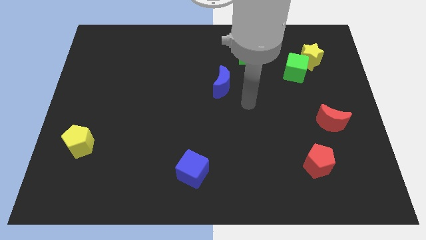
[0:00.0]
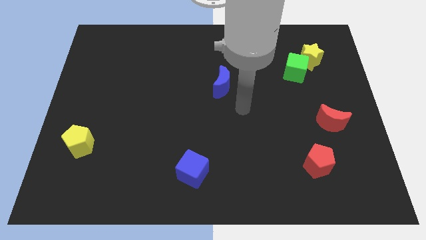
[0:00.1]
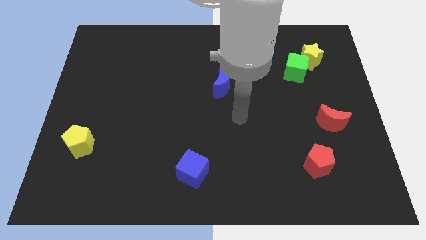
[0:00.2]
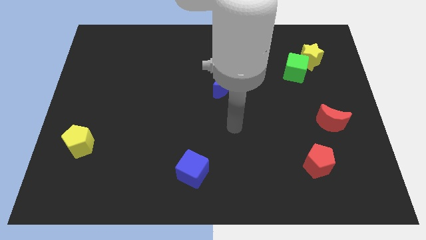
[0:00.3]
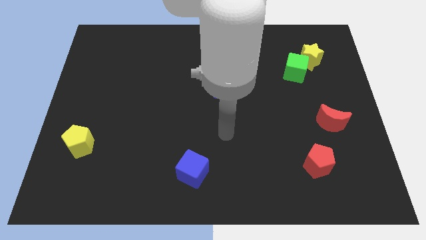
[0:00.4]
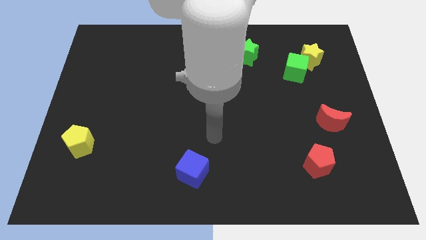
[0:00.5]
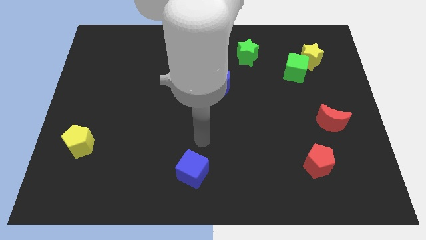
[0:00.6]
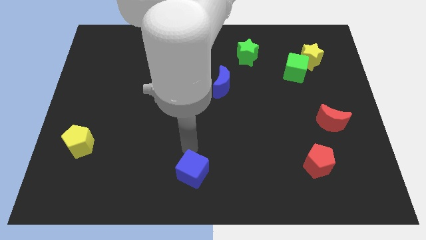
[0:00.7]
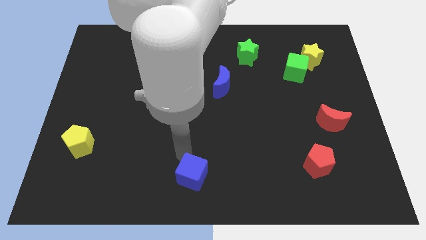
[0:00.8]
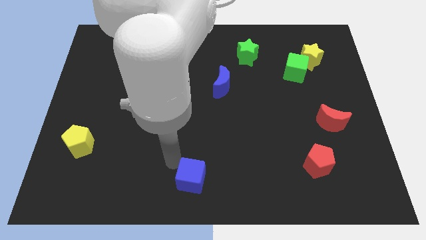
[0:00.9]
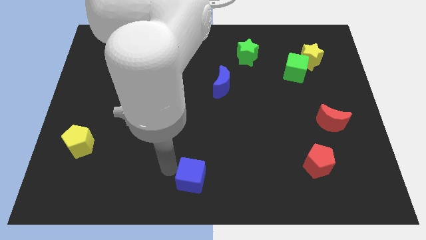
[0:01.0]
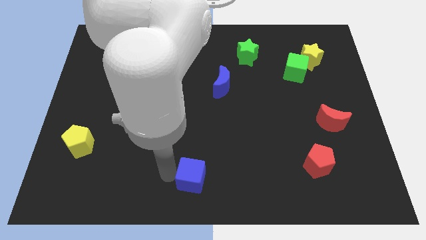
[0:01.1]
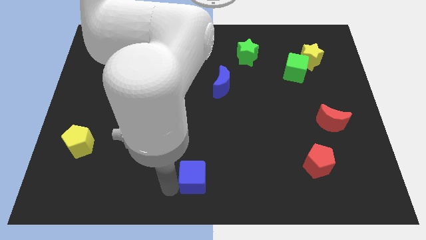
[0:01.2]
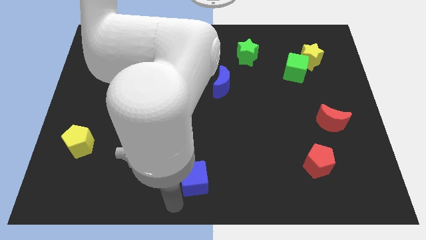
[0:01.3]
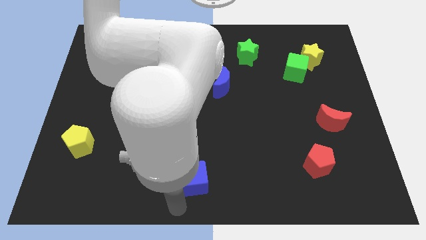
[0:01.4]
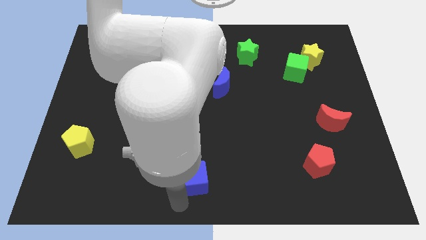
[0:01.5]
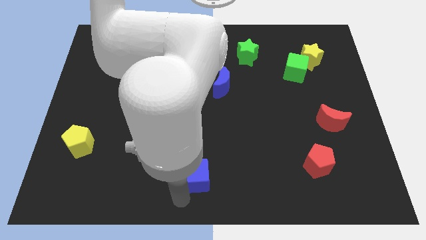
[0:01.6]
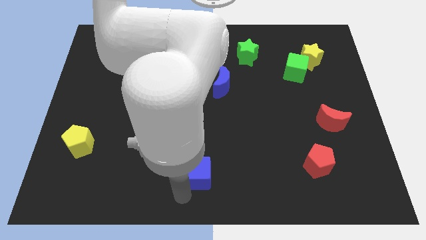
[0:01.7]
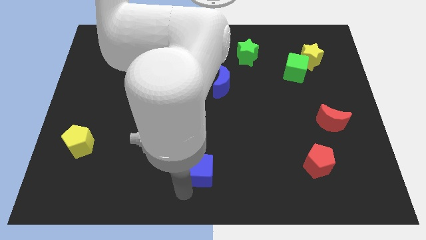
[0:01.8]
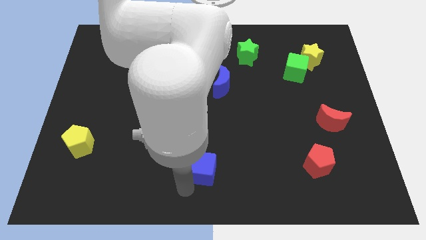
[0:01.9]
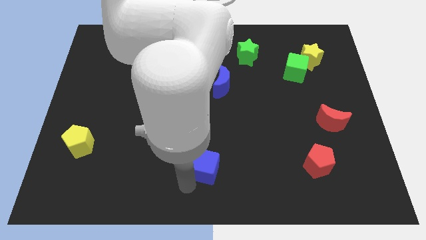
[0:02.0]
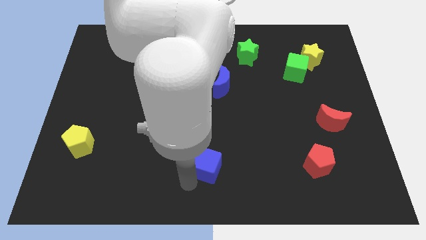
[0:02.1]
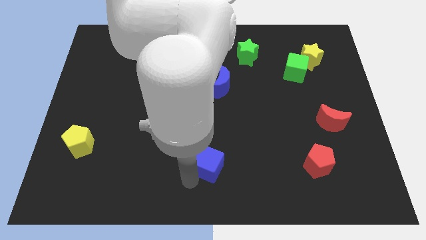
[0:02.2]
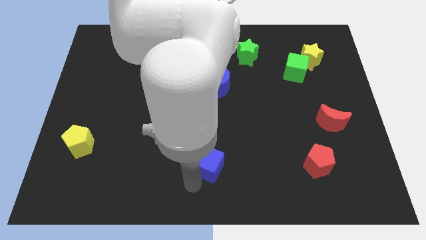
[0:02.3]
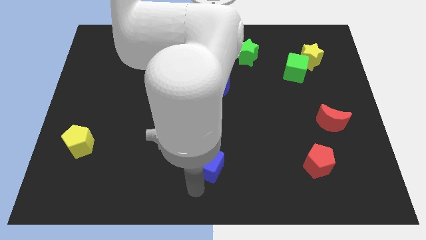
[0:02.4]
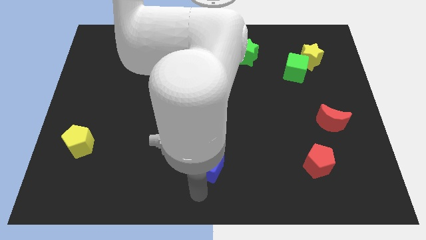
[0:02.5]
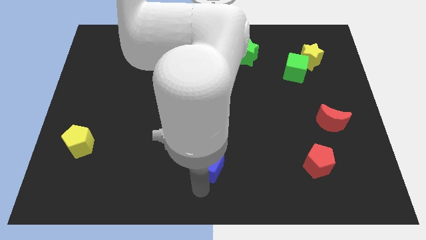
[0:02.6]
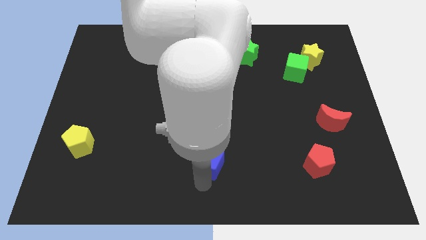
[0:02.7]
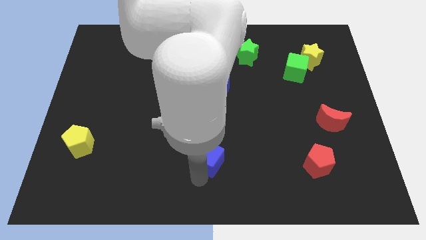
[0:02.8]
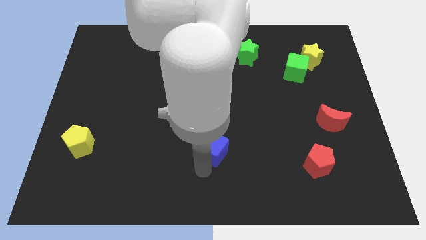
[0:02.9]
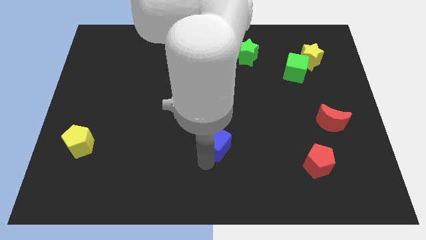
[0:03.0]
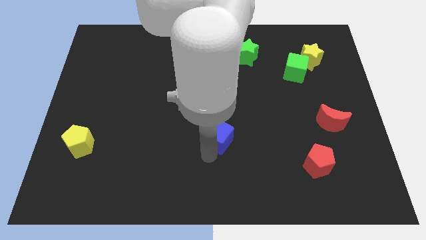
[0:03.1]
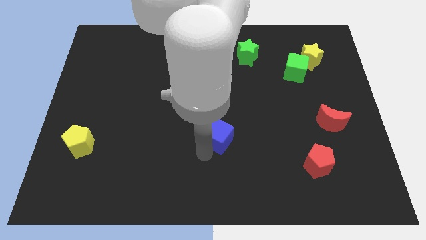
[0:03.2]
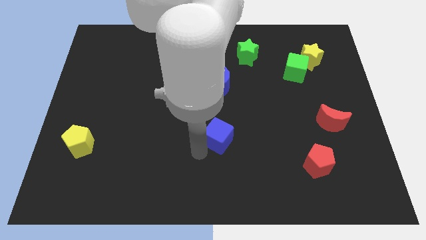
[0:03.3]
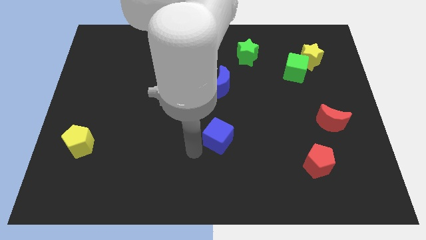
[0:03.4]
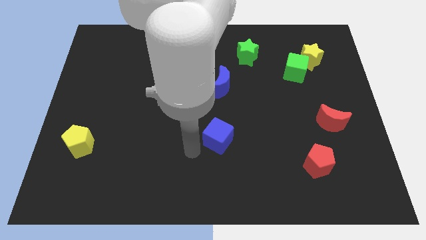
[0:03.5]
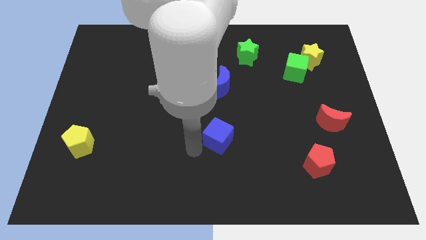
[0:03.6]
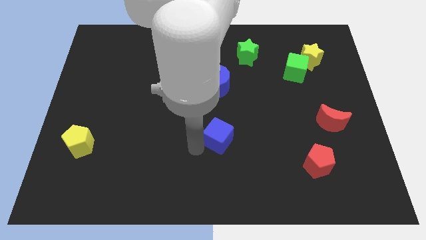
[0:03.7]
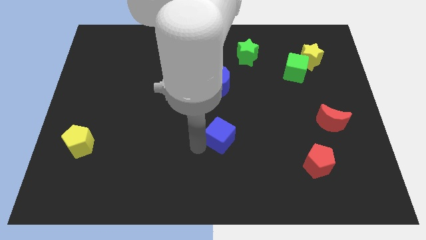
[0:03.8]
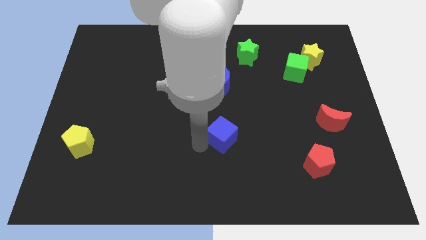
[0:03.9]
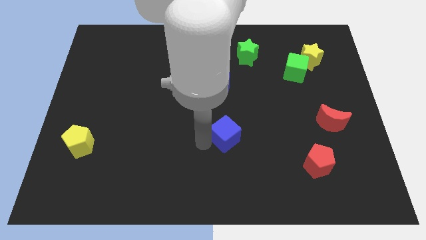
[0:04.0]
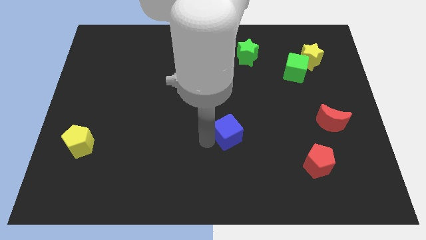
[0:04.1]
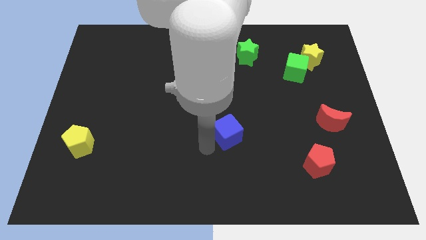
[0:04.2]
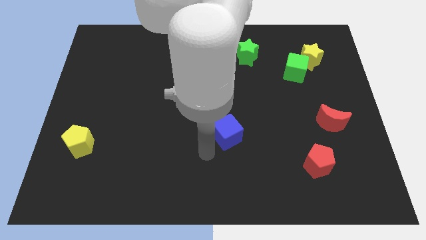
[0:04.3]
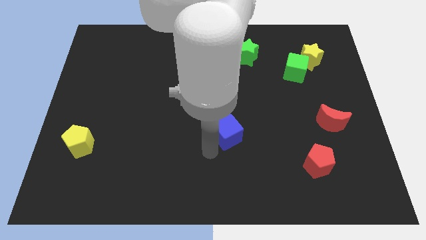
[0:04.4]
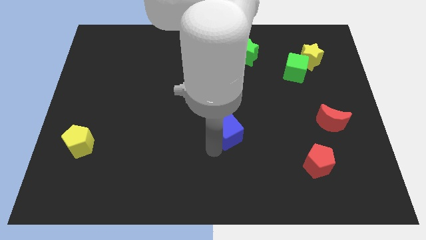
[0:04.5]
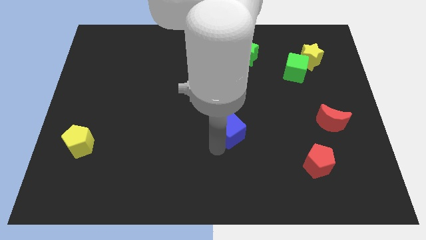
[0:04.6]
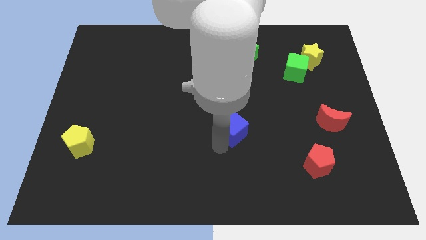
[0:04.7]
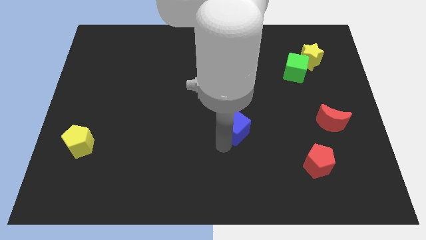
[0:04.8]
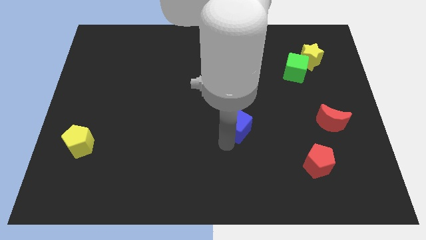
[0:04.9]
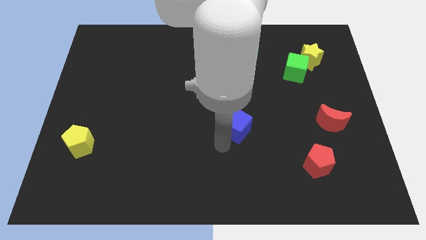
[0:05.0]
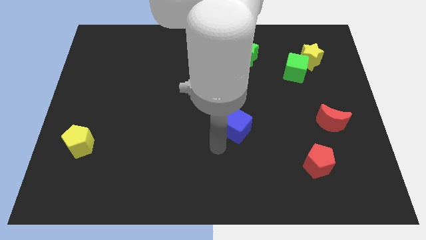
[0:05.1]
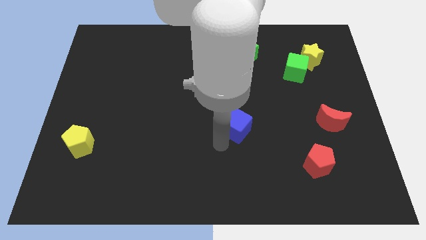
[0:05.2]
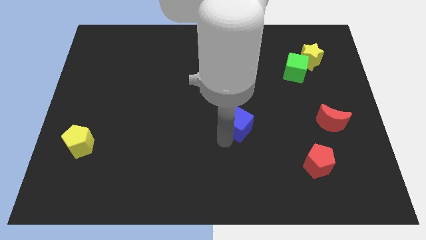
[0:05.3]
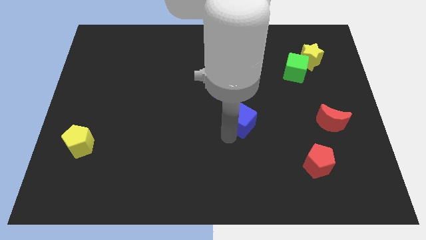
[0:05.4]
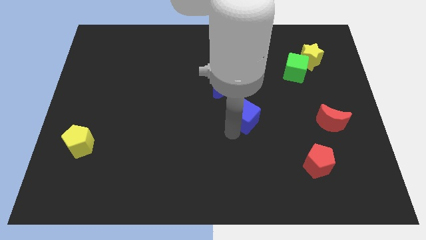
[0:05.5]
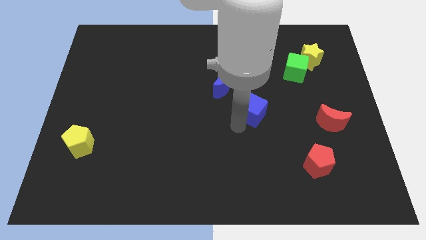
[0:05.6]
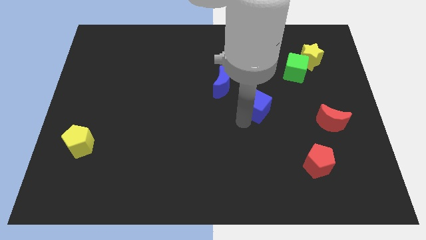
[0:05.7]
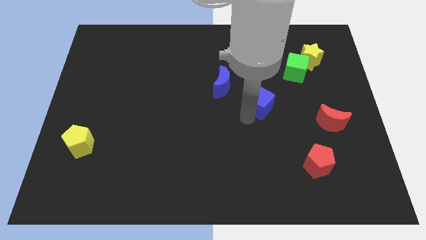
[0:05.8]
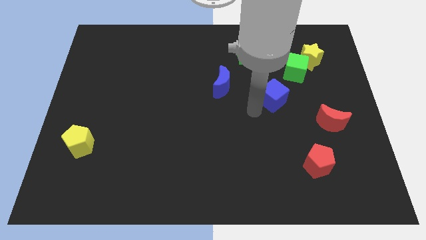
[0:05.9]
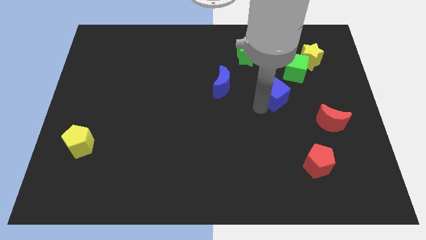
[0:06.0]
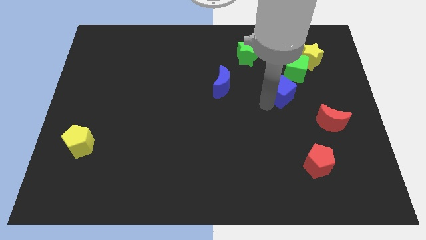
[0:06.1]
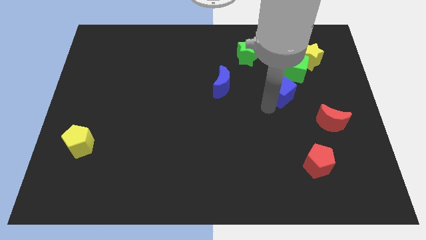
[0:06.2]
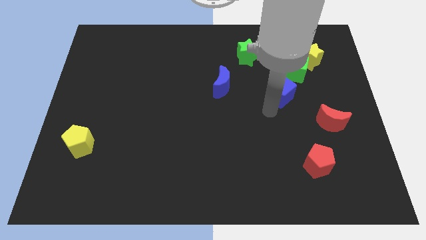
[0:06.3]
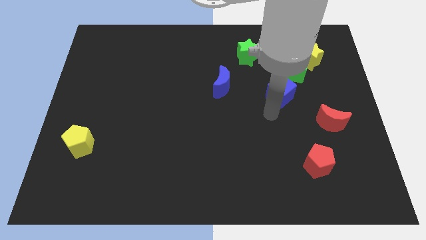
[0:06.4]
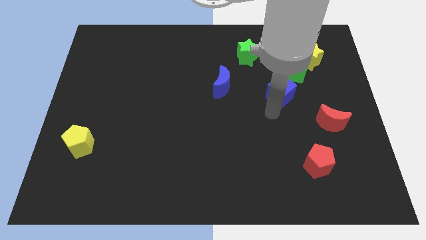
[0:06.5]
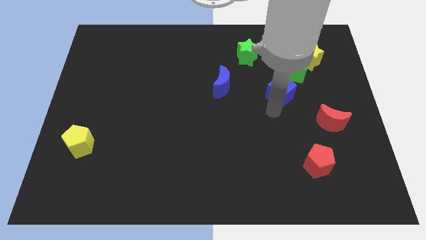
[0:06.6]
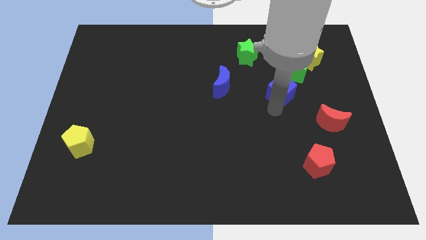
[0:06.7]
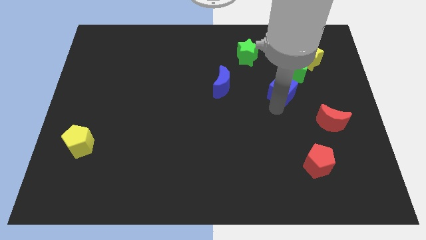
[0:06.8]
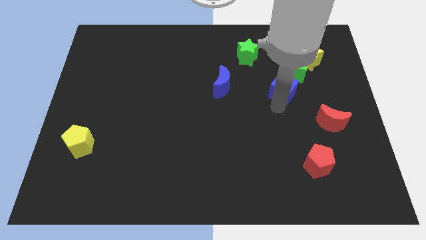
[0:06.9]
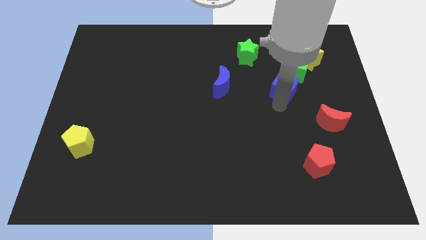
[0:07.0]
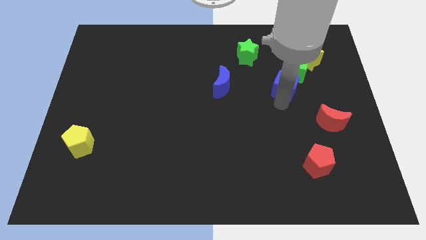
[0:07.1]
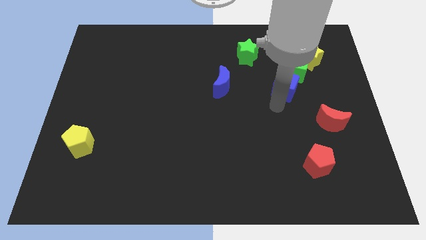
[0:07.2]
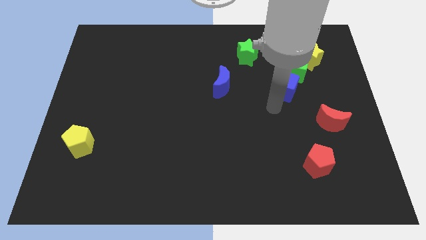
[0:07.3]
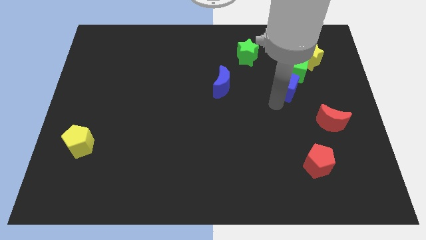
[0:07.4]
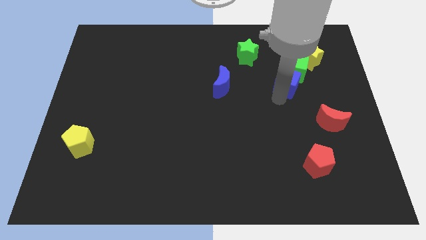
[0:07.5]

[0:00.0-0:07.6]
slide the blue cube next to the green cube

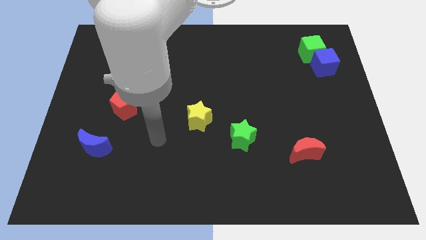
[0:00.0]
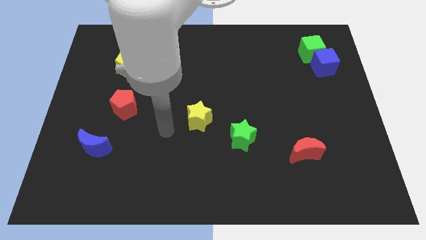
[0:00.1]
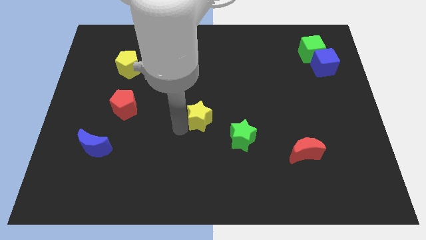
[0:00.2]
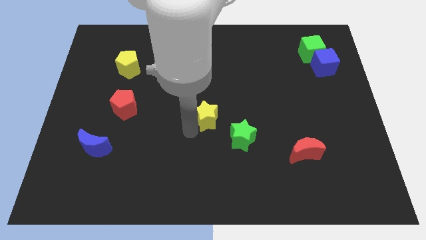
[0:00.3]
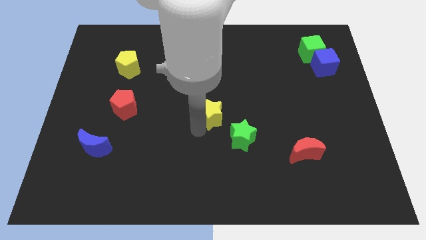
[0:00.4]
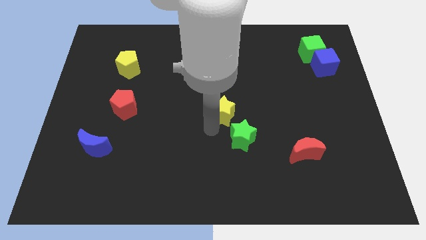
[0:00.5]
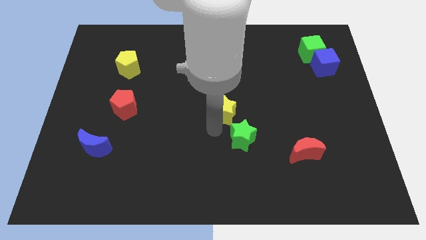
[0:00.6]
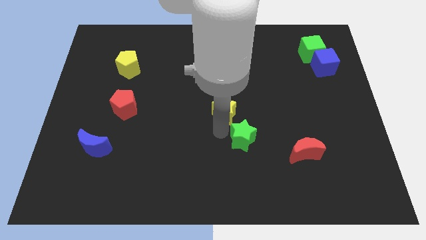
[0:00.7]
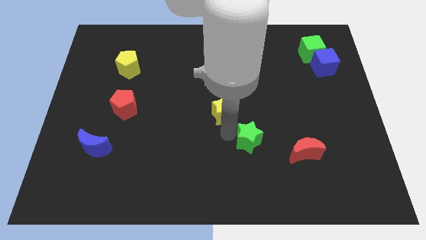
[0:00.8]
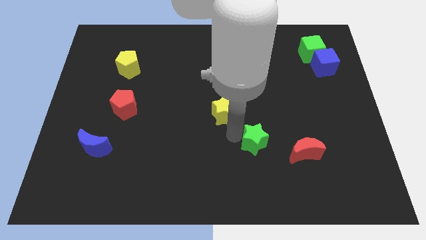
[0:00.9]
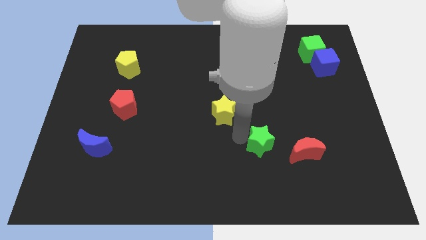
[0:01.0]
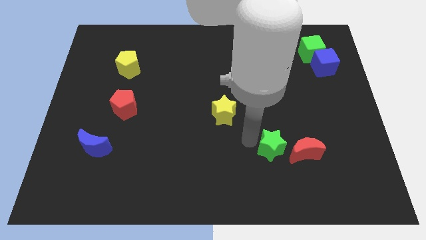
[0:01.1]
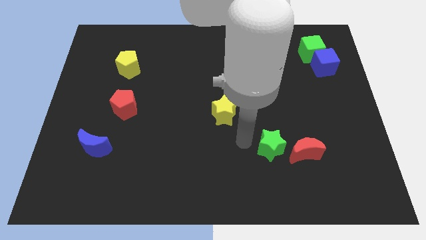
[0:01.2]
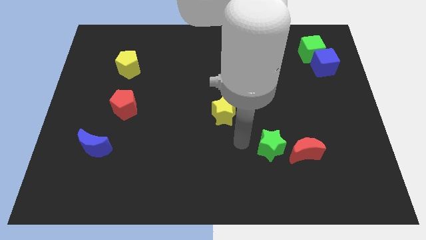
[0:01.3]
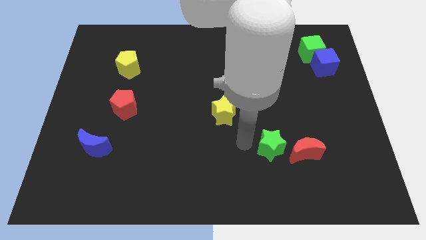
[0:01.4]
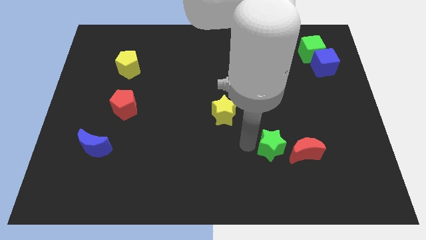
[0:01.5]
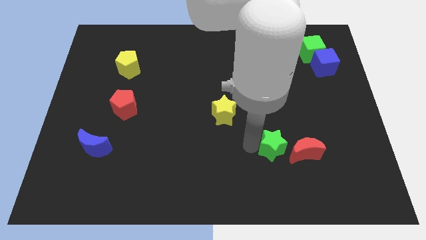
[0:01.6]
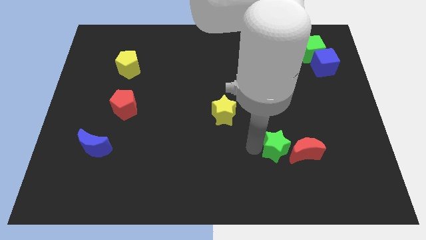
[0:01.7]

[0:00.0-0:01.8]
put the green star next to the red moon
